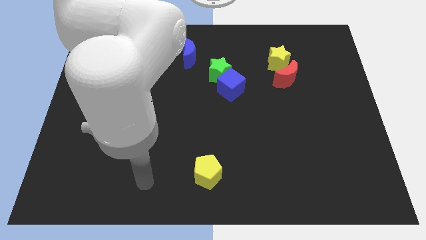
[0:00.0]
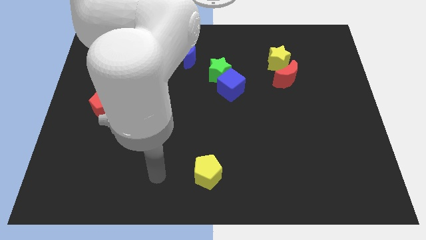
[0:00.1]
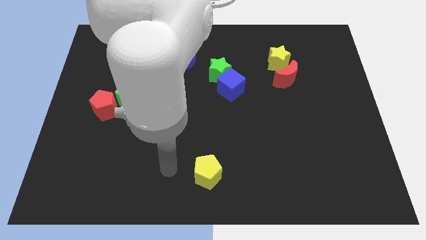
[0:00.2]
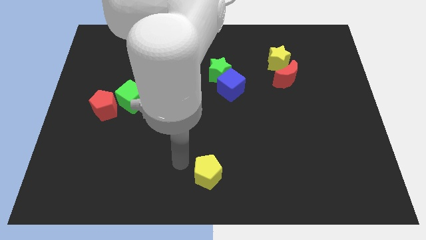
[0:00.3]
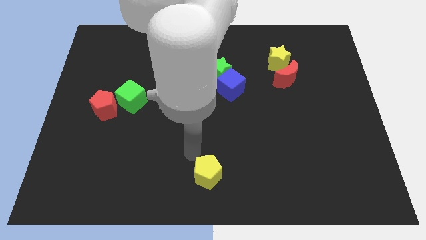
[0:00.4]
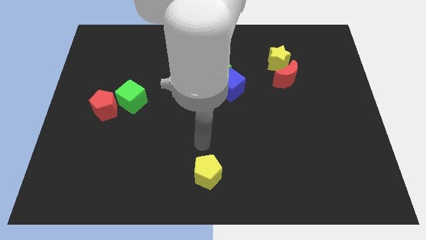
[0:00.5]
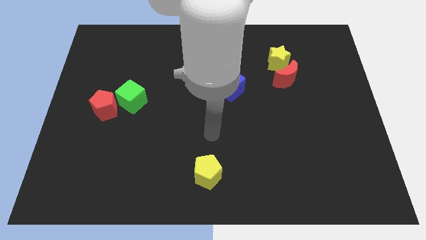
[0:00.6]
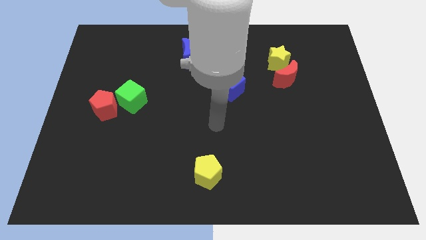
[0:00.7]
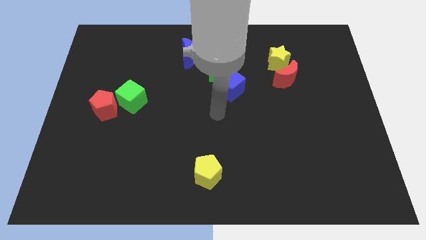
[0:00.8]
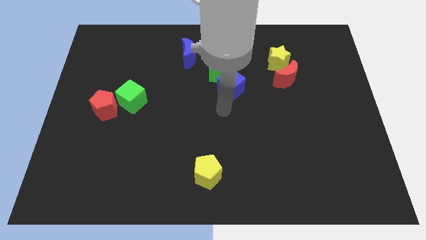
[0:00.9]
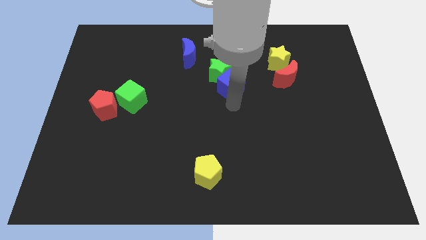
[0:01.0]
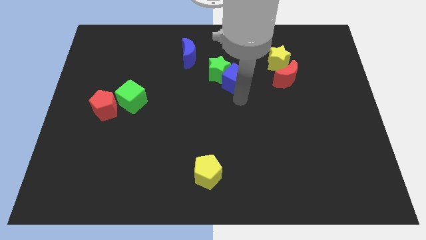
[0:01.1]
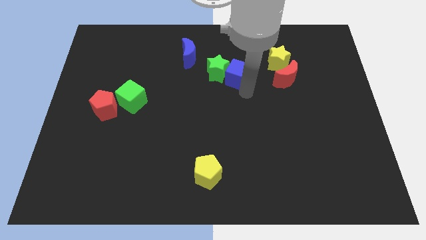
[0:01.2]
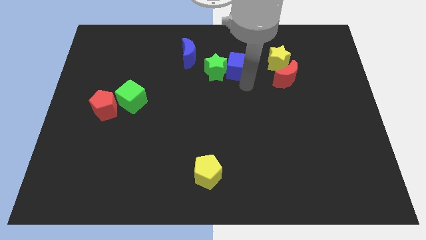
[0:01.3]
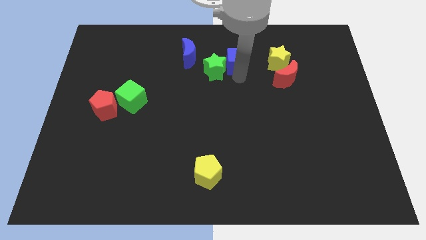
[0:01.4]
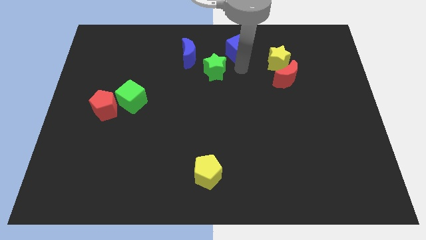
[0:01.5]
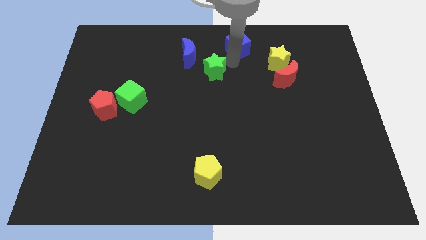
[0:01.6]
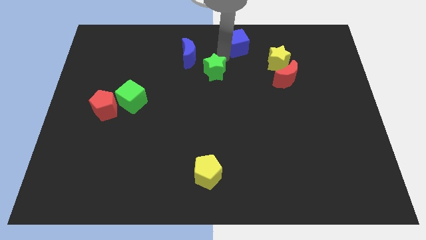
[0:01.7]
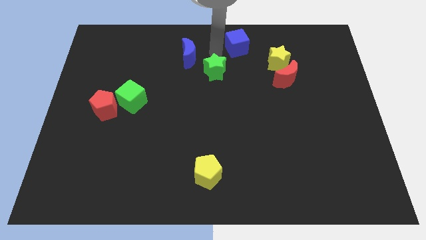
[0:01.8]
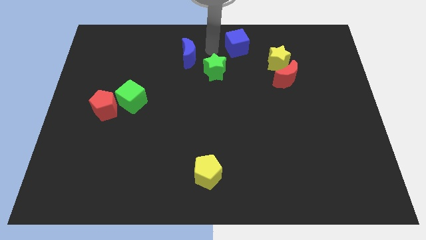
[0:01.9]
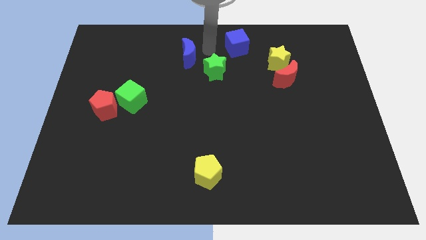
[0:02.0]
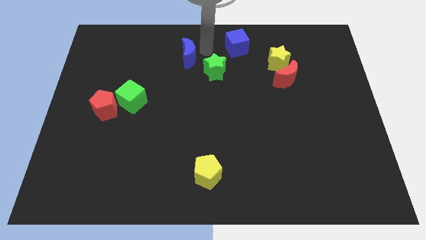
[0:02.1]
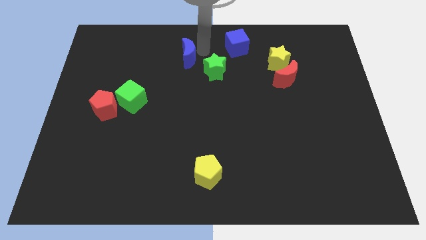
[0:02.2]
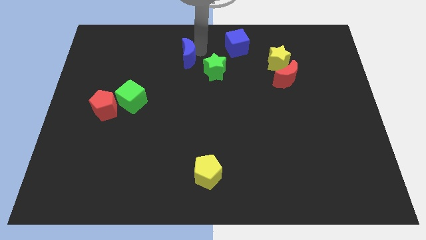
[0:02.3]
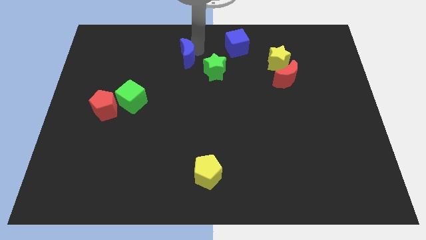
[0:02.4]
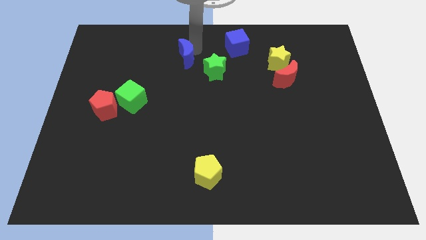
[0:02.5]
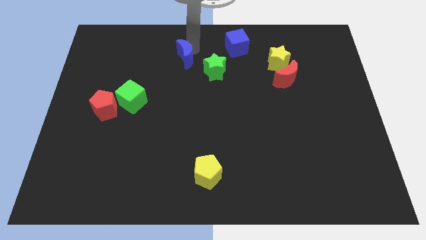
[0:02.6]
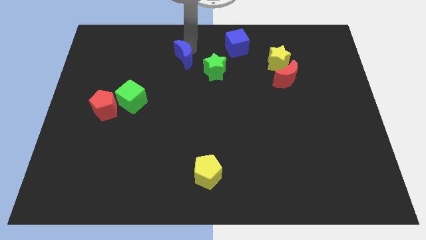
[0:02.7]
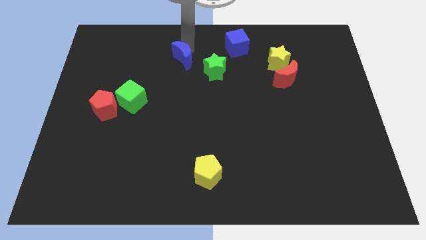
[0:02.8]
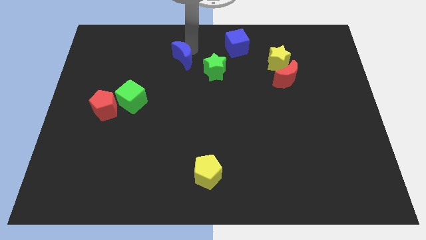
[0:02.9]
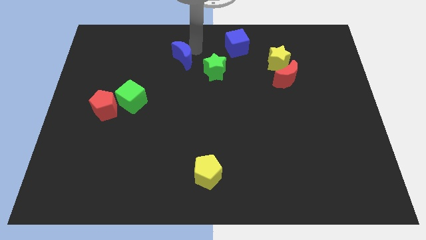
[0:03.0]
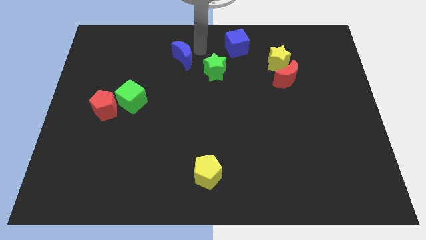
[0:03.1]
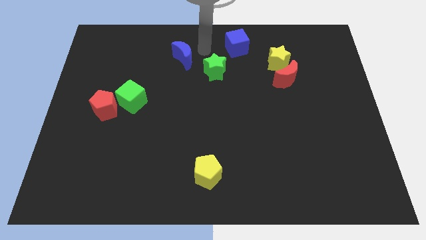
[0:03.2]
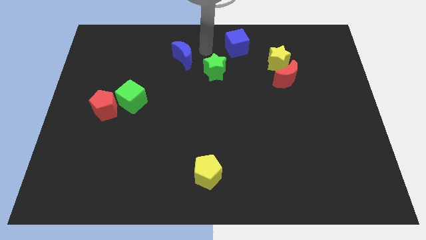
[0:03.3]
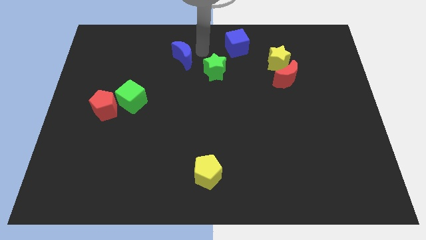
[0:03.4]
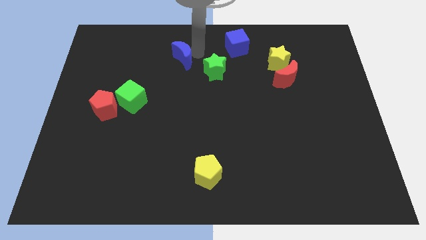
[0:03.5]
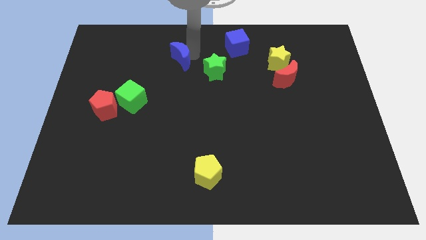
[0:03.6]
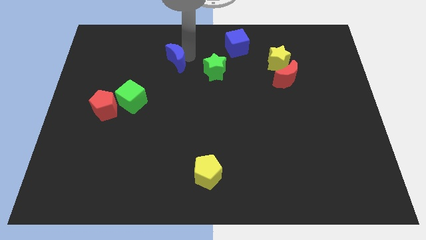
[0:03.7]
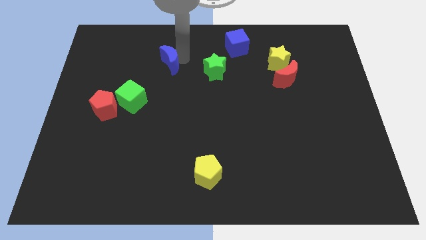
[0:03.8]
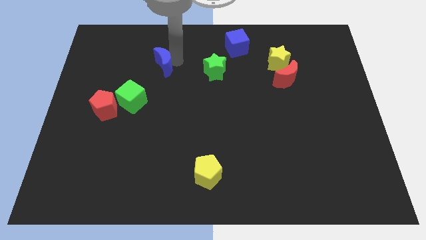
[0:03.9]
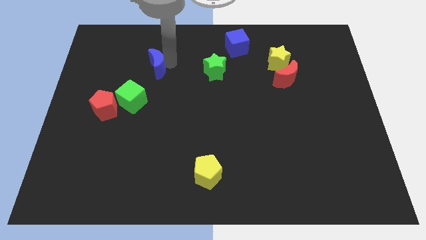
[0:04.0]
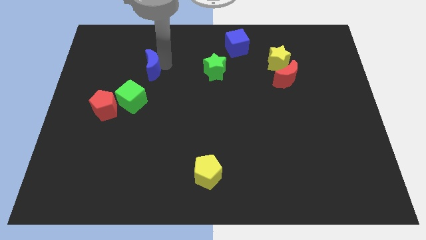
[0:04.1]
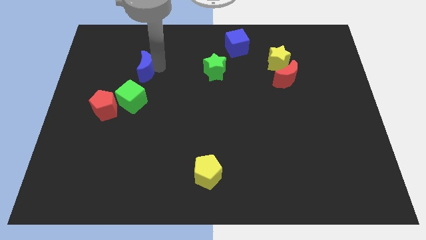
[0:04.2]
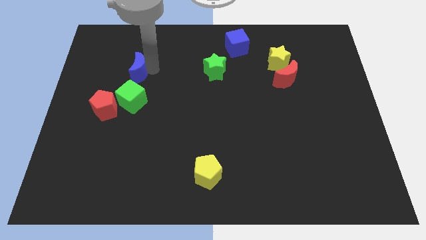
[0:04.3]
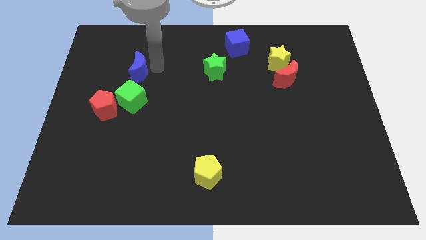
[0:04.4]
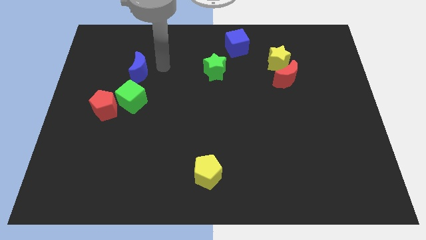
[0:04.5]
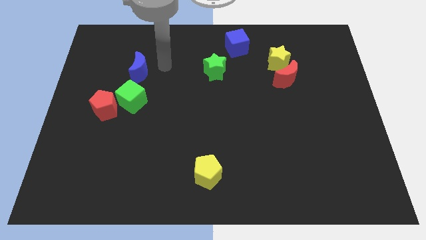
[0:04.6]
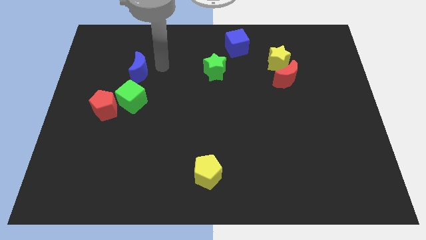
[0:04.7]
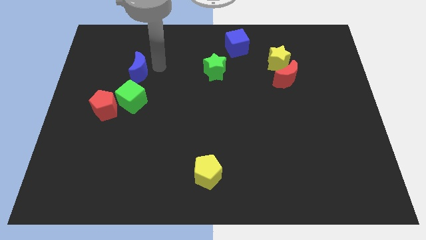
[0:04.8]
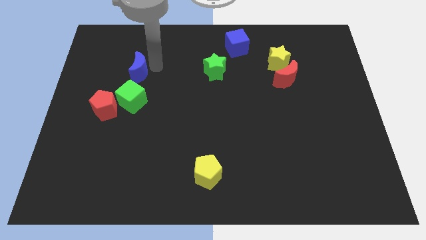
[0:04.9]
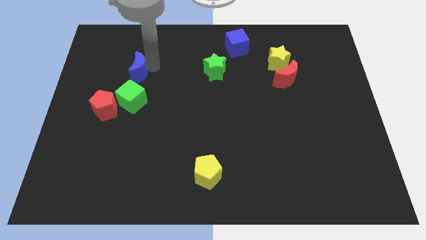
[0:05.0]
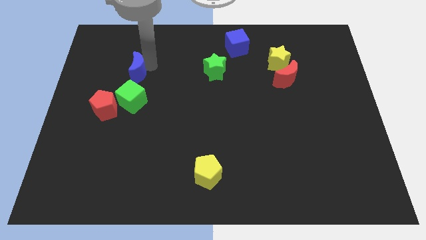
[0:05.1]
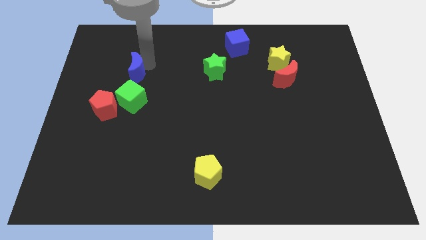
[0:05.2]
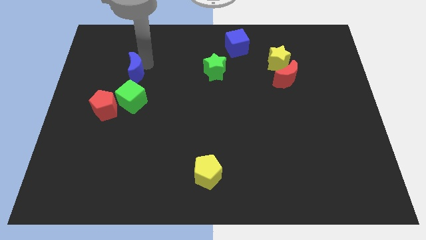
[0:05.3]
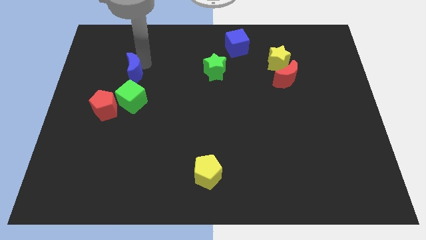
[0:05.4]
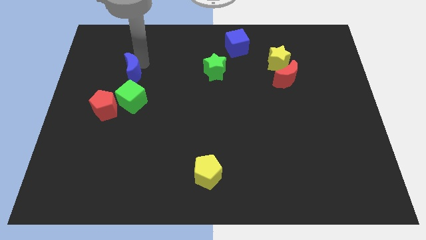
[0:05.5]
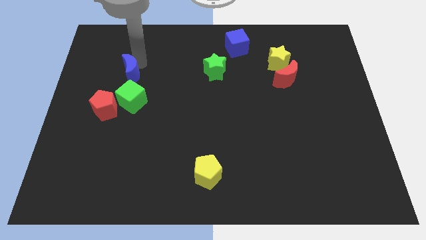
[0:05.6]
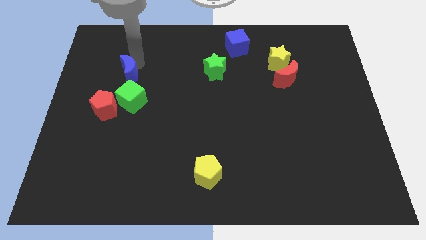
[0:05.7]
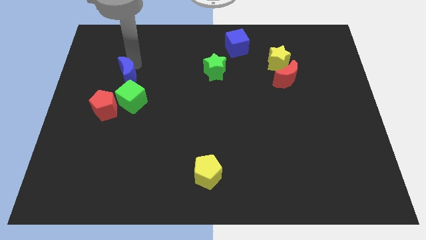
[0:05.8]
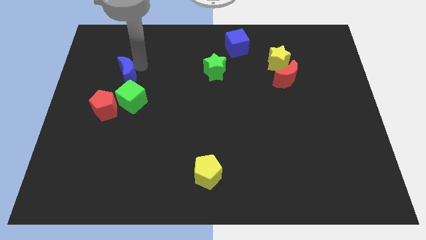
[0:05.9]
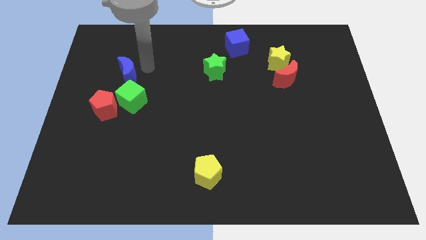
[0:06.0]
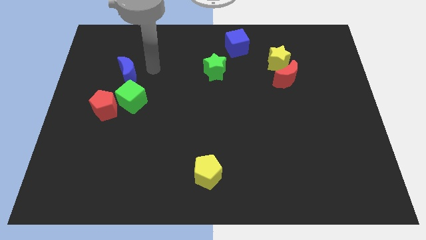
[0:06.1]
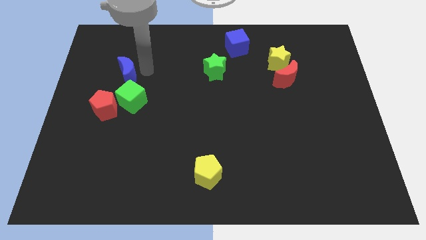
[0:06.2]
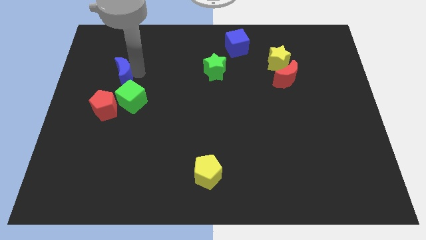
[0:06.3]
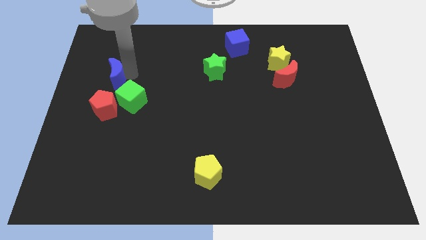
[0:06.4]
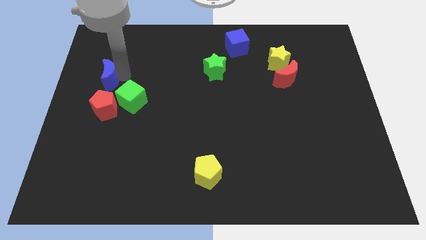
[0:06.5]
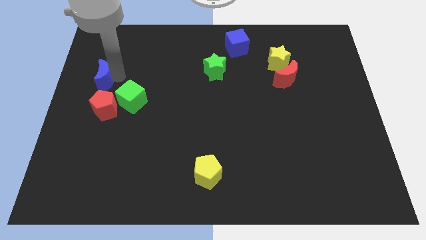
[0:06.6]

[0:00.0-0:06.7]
slide the blue moon to the center left
